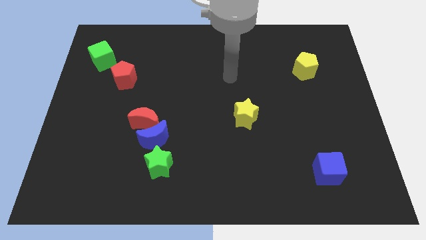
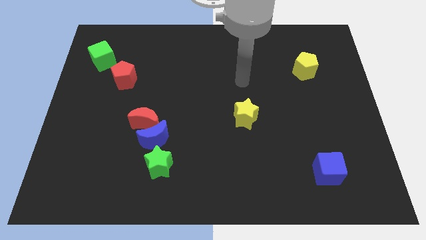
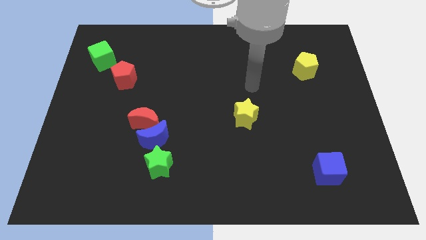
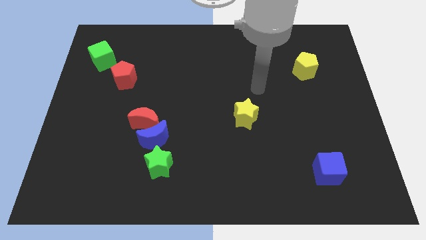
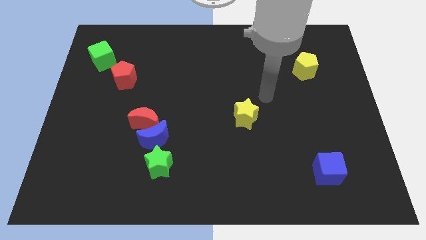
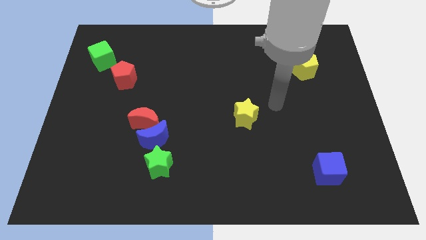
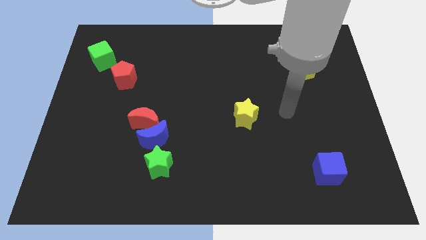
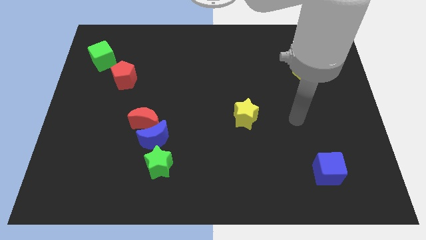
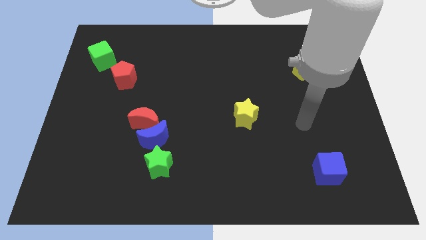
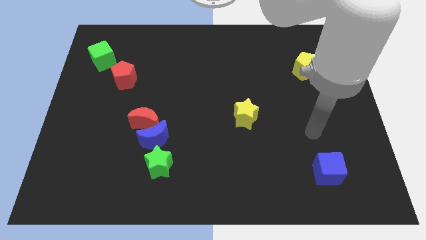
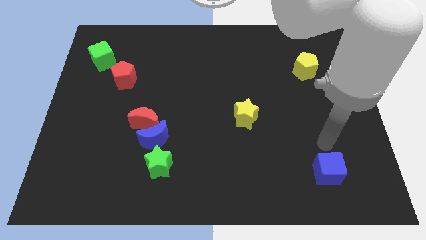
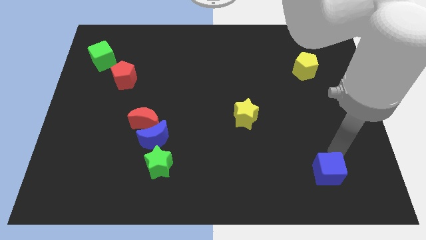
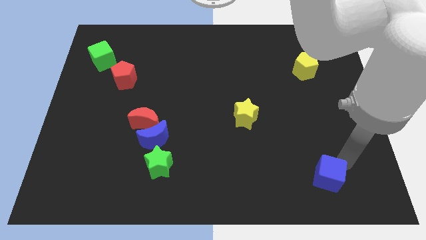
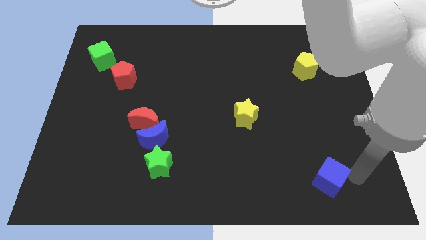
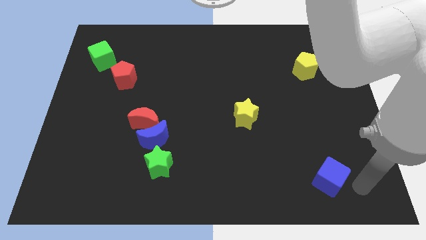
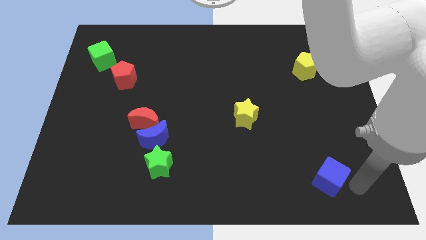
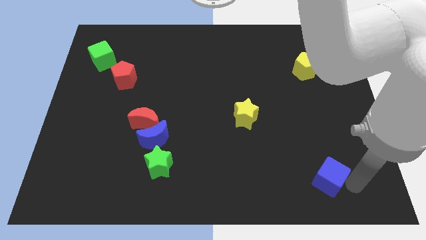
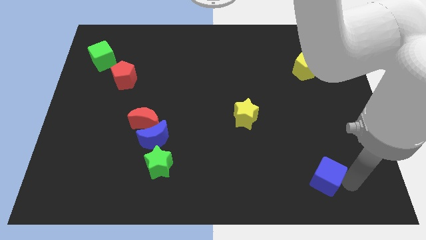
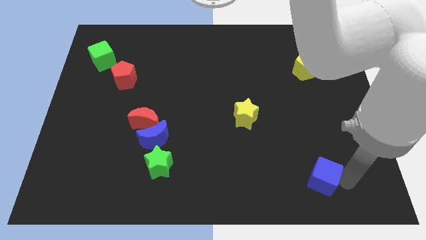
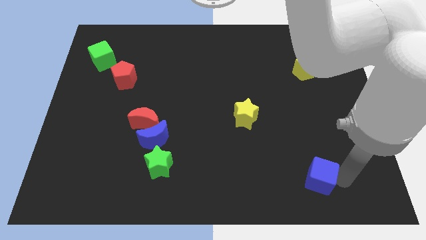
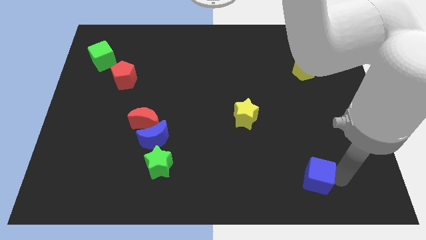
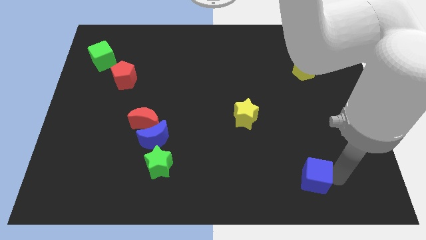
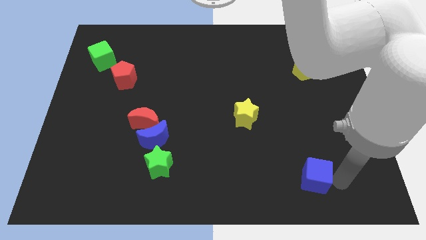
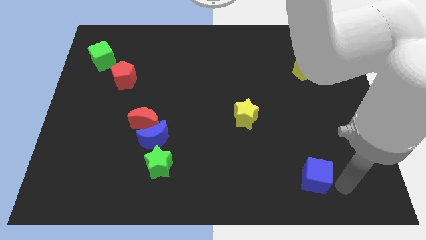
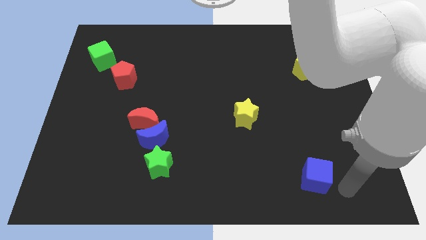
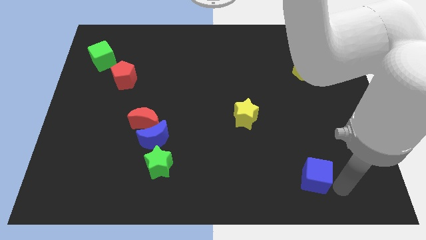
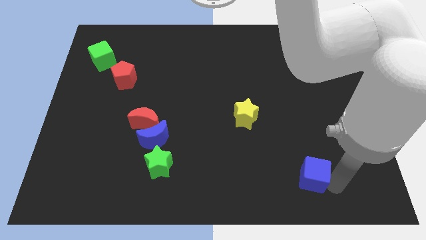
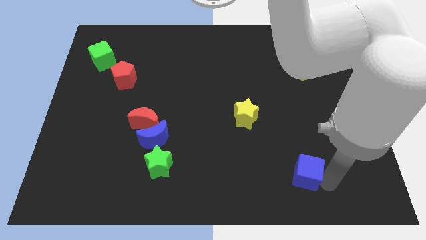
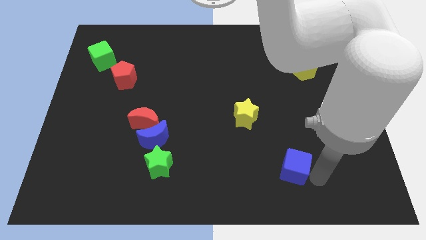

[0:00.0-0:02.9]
move the blue cube somewhat left

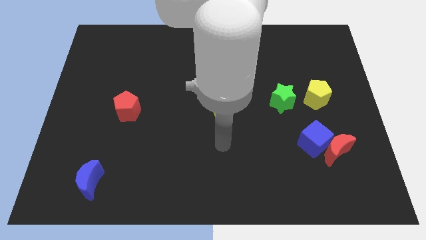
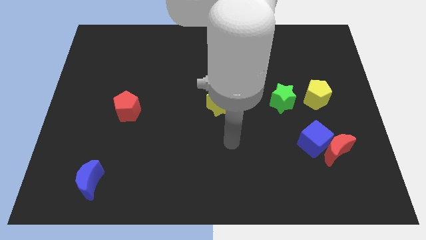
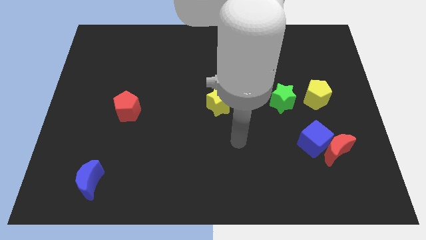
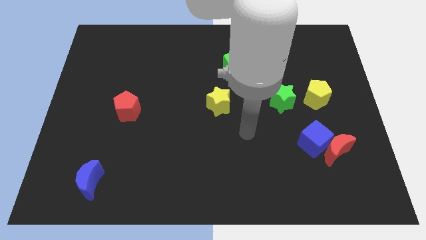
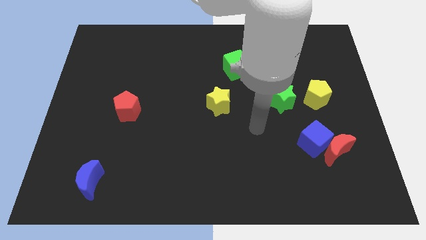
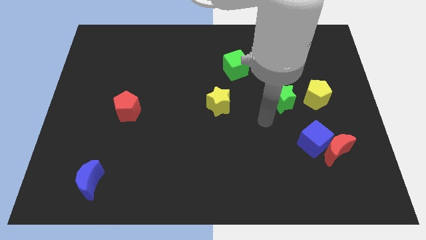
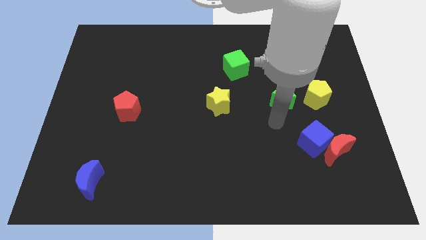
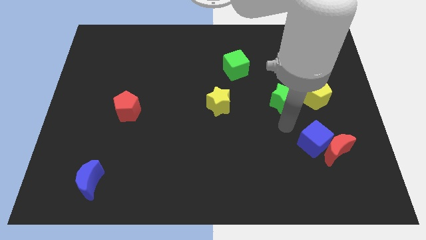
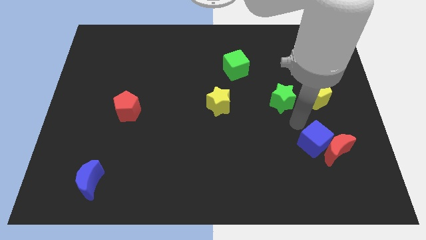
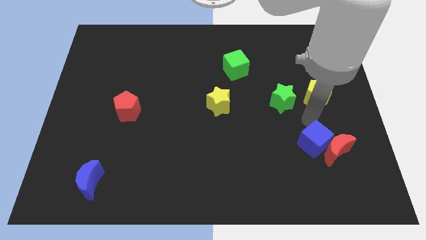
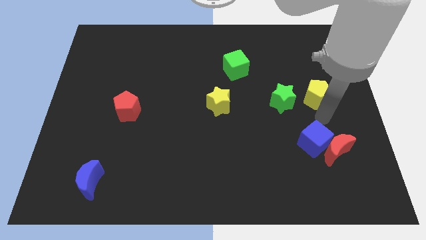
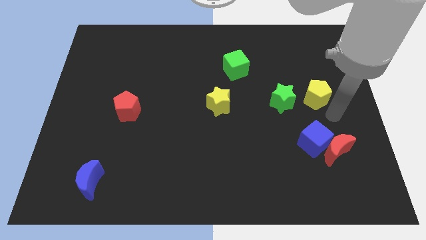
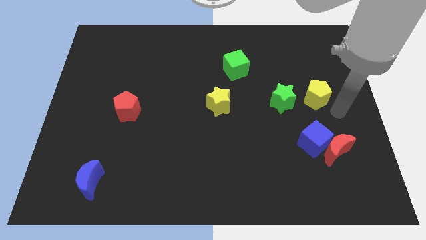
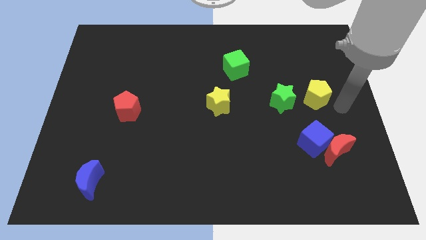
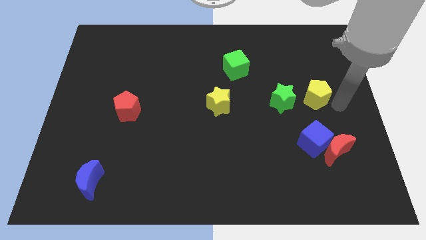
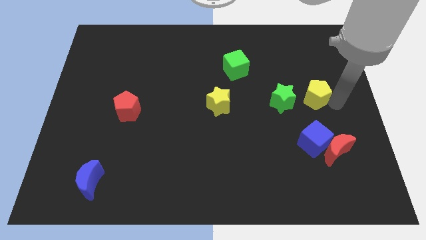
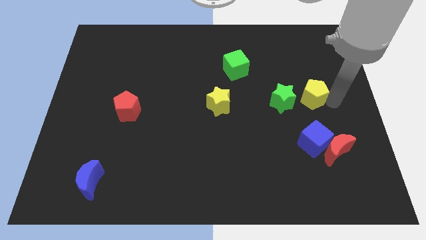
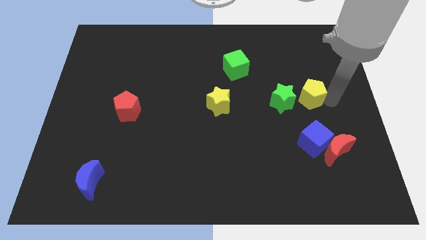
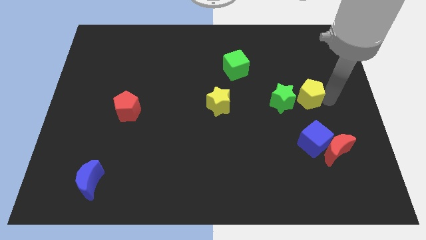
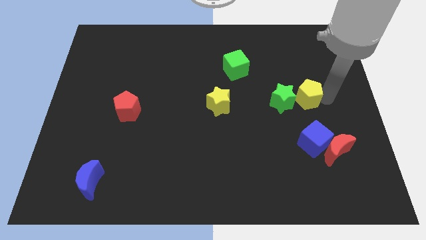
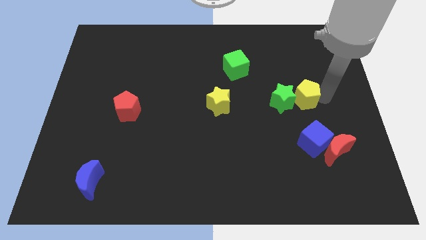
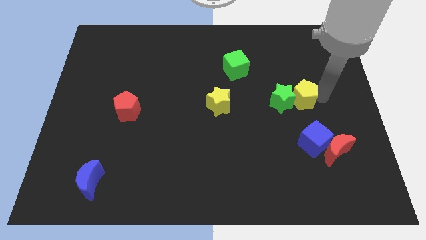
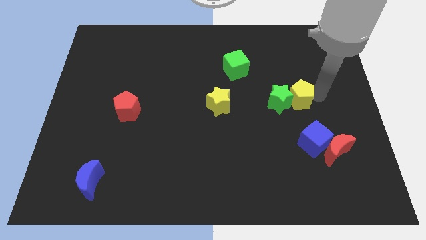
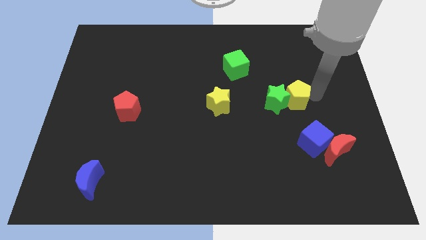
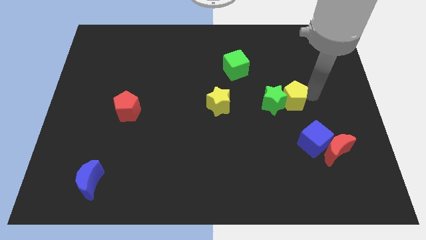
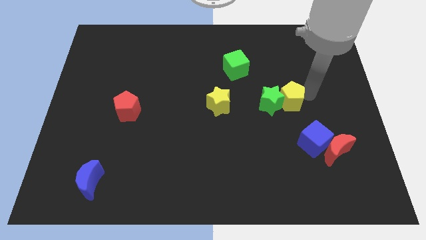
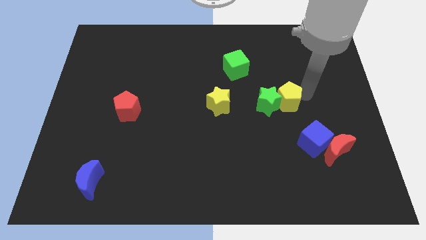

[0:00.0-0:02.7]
slightly move the yellow pentagon to the left

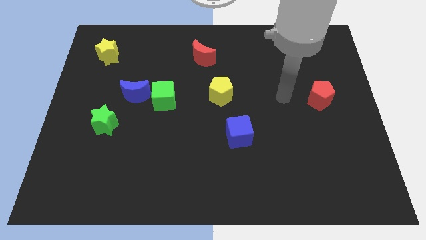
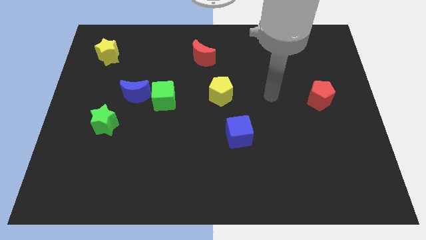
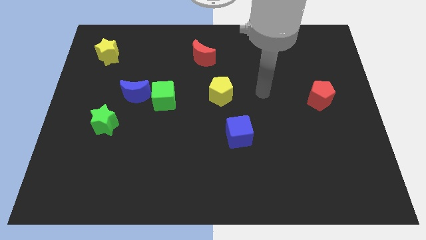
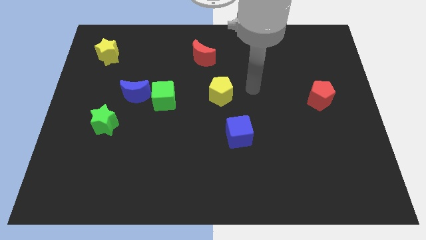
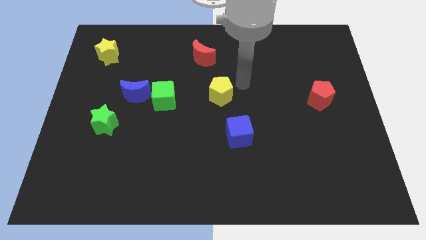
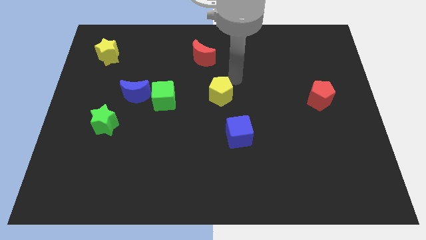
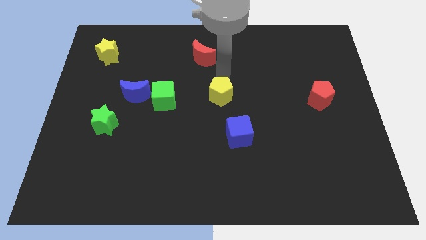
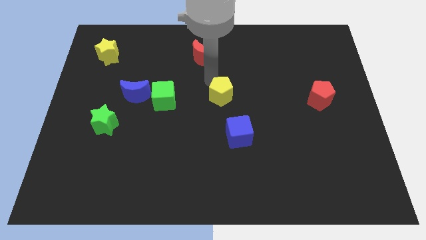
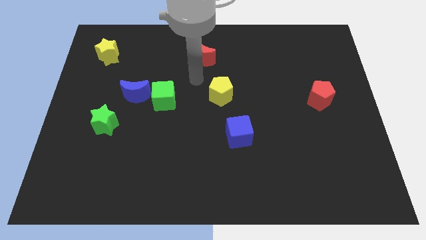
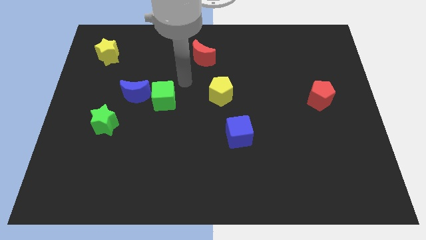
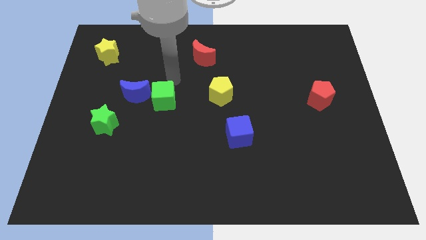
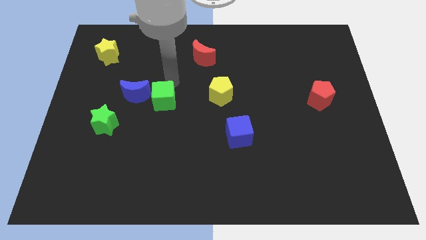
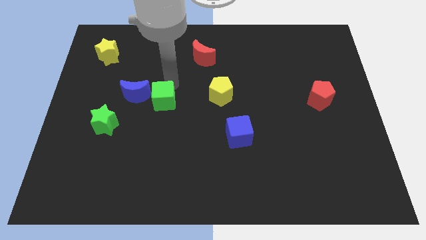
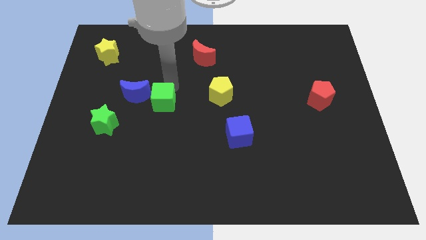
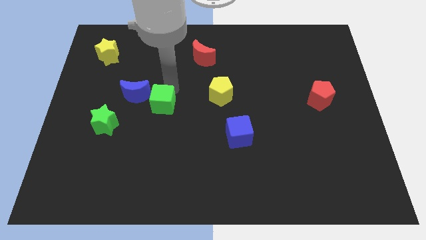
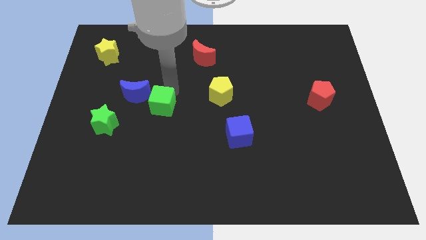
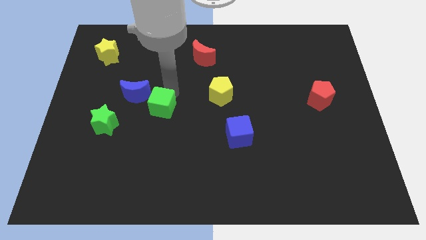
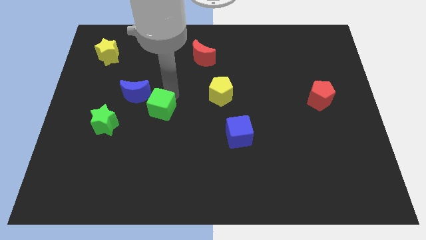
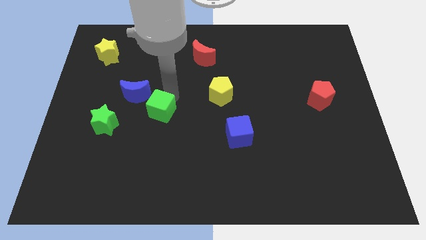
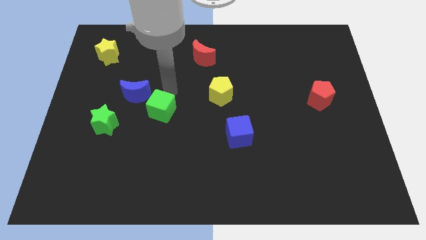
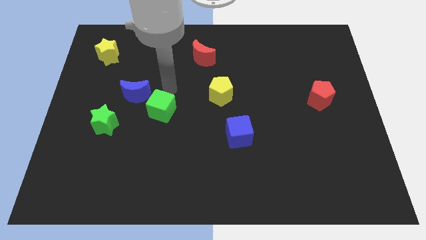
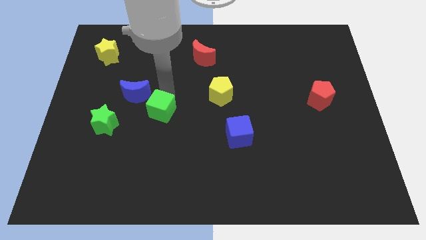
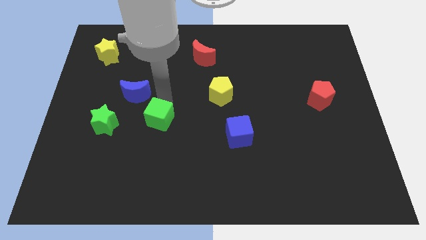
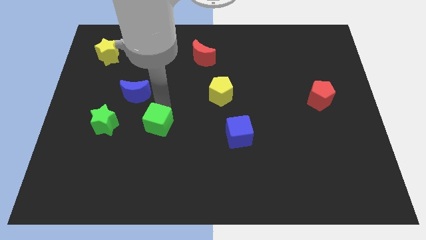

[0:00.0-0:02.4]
slightly push the green cube downwards

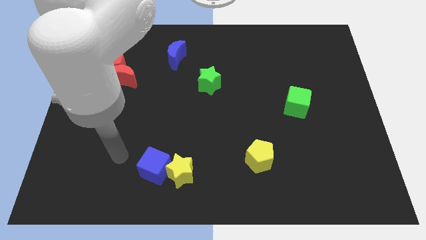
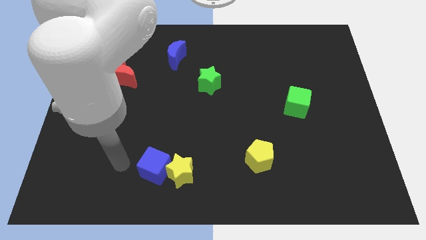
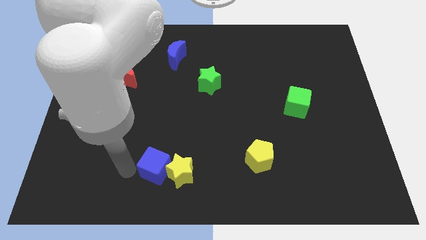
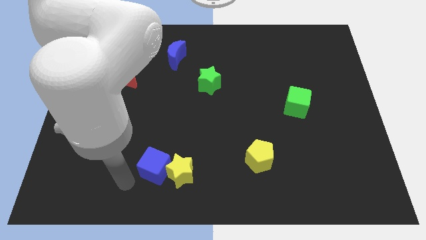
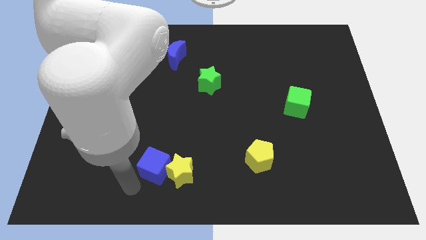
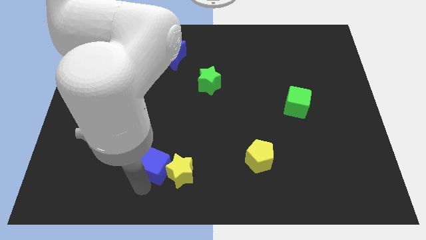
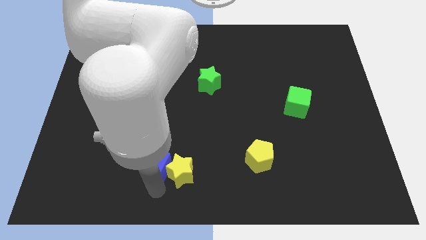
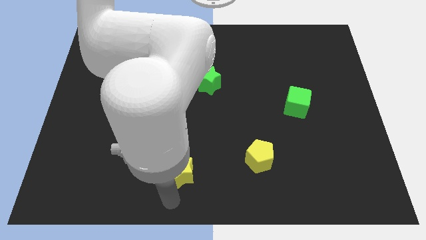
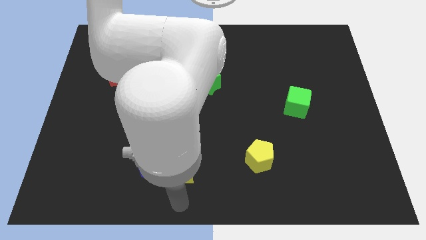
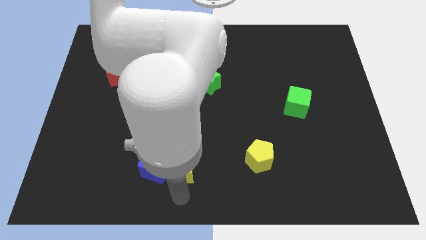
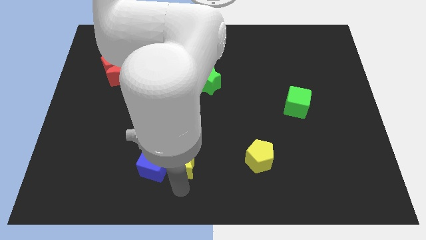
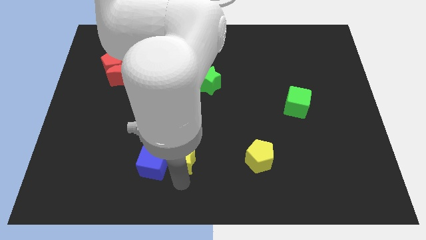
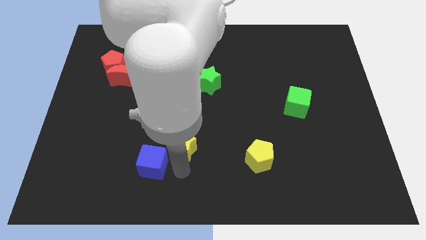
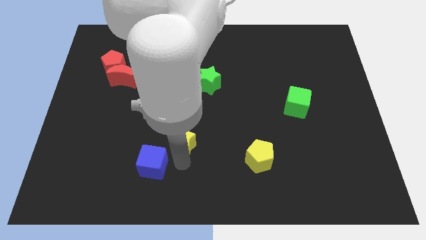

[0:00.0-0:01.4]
slide the yellow star upwards a little bit
